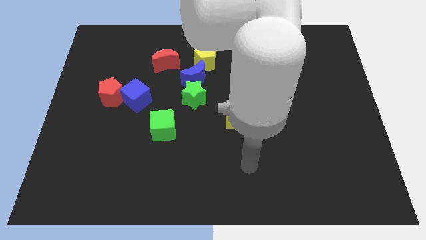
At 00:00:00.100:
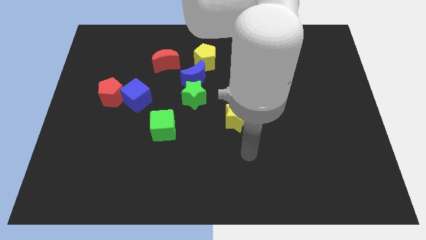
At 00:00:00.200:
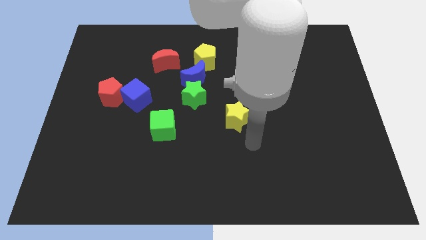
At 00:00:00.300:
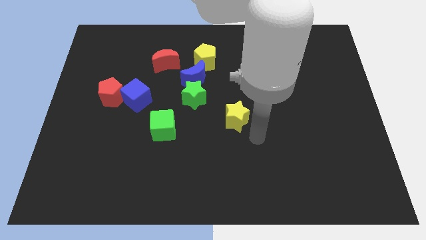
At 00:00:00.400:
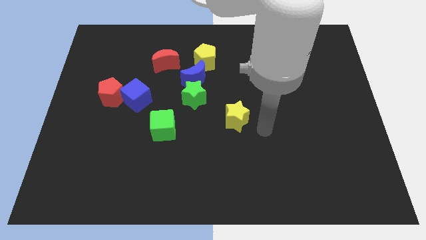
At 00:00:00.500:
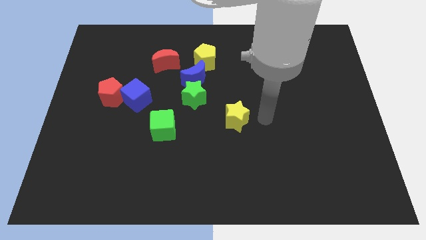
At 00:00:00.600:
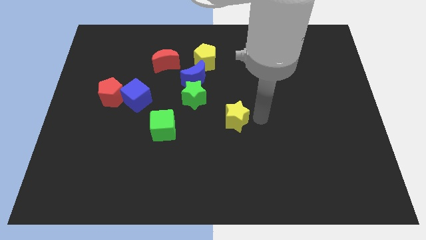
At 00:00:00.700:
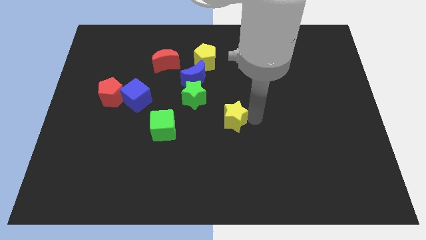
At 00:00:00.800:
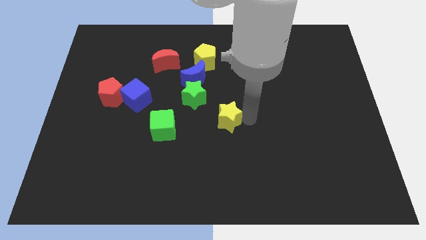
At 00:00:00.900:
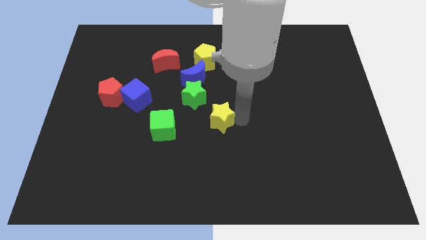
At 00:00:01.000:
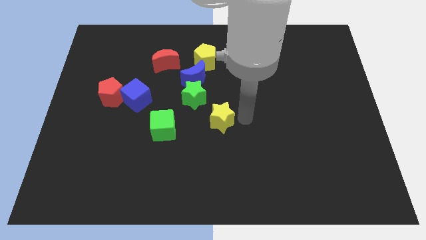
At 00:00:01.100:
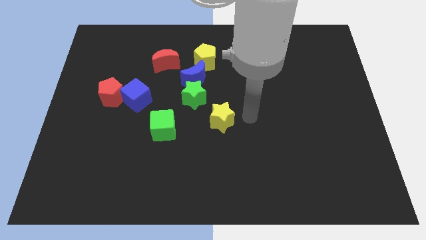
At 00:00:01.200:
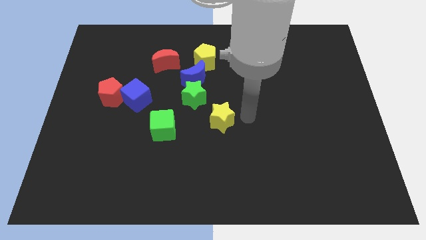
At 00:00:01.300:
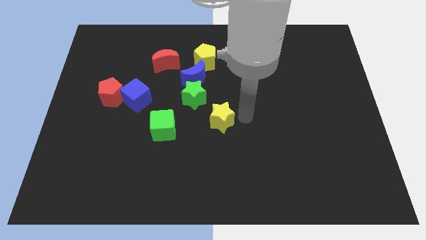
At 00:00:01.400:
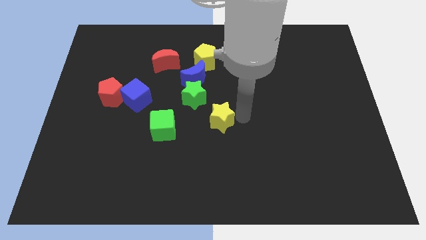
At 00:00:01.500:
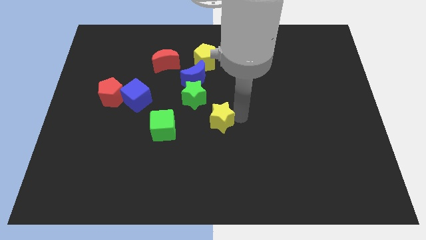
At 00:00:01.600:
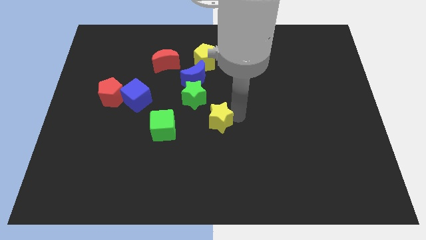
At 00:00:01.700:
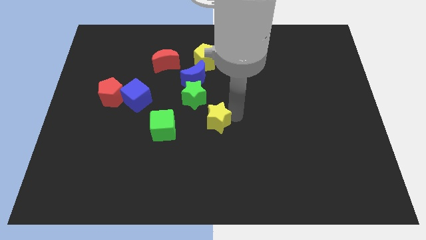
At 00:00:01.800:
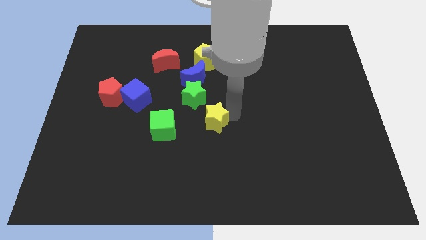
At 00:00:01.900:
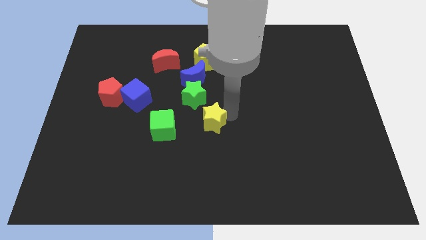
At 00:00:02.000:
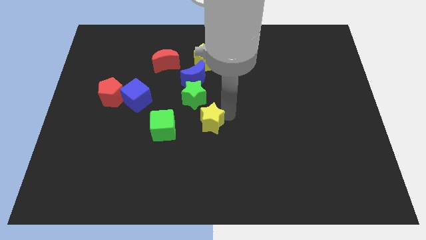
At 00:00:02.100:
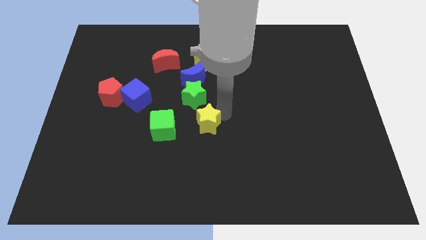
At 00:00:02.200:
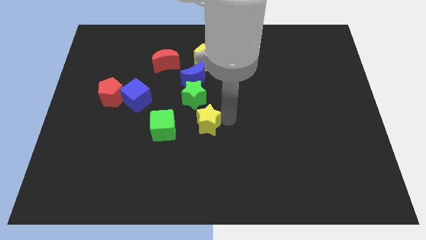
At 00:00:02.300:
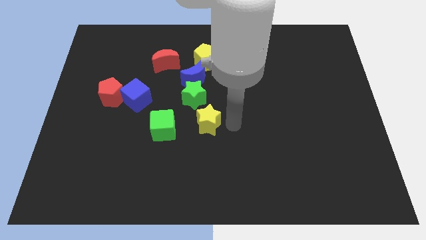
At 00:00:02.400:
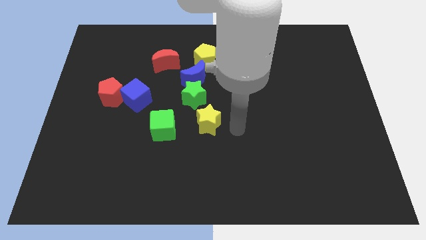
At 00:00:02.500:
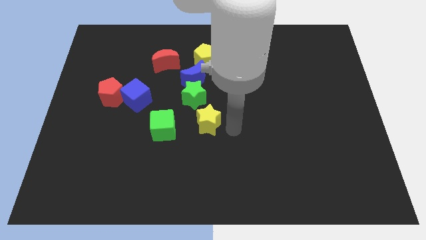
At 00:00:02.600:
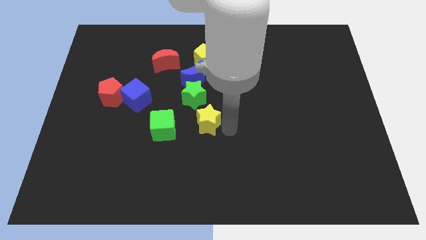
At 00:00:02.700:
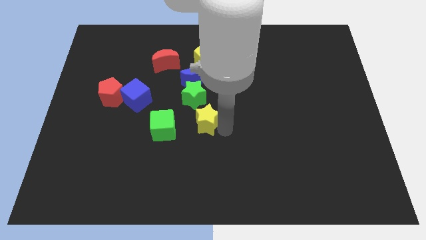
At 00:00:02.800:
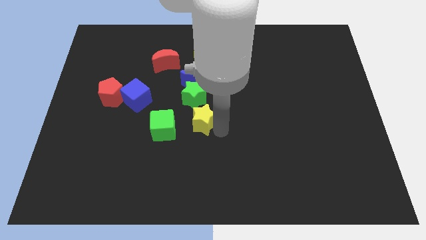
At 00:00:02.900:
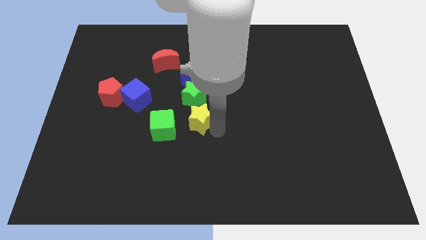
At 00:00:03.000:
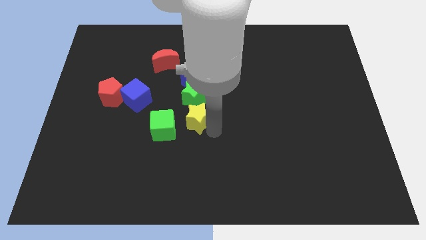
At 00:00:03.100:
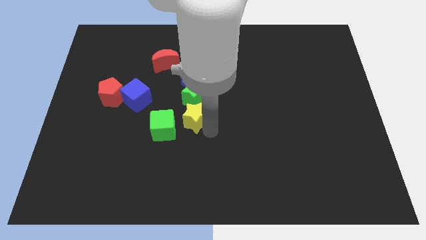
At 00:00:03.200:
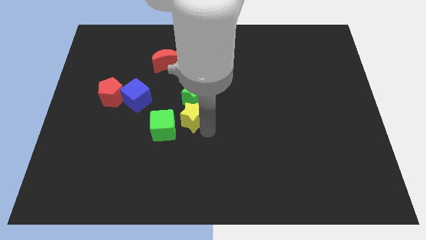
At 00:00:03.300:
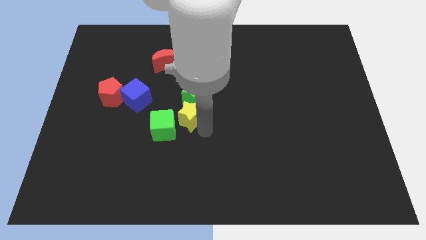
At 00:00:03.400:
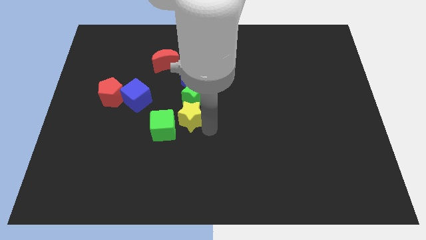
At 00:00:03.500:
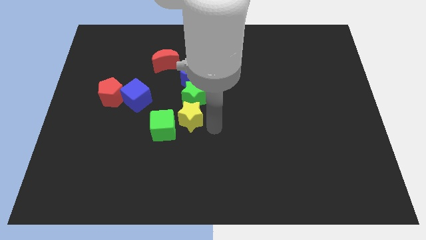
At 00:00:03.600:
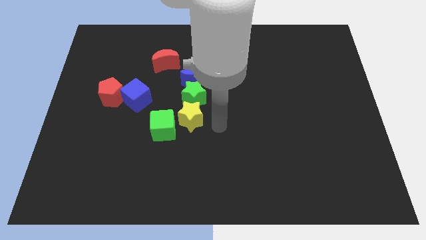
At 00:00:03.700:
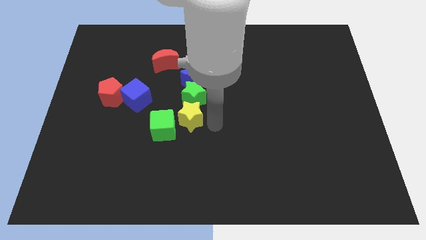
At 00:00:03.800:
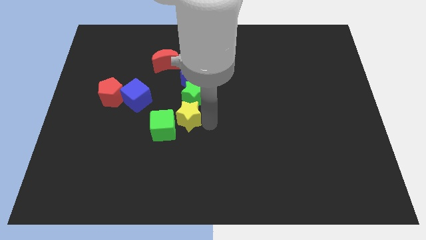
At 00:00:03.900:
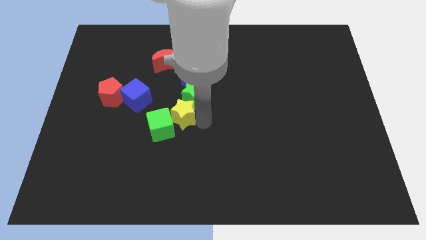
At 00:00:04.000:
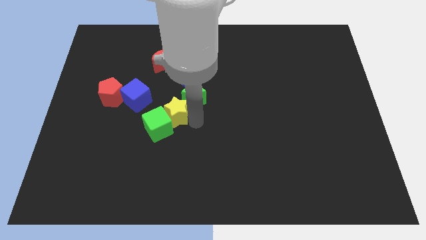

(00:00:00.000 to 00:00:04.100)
move the yellow star a little bit upwards and to the left diagonally

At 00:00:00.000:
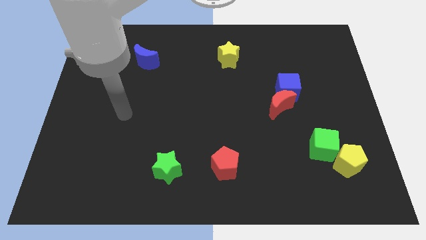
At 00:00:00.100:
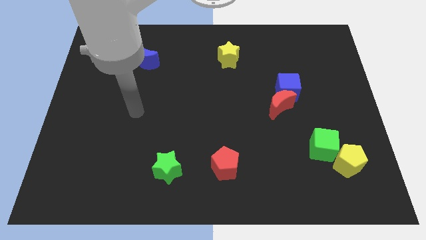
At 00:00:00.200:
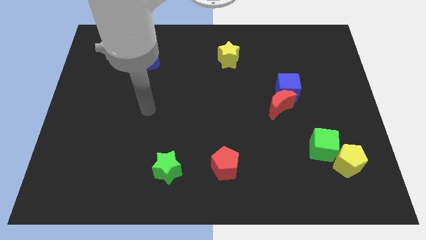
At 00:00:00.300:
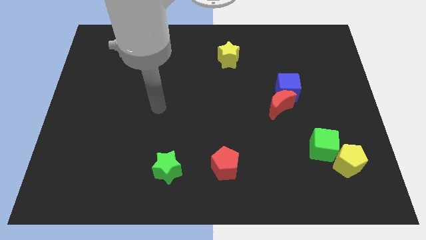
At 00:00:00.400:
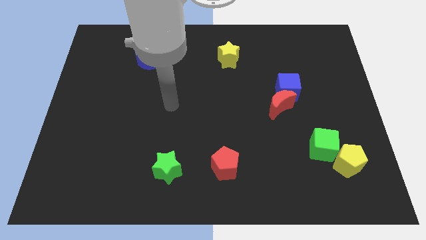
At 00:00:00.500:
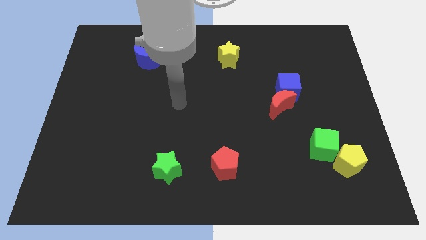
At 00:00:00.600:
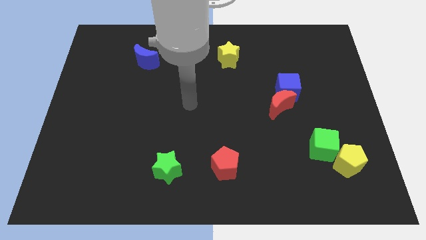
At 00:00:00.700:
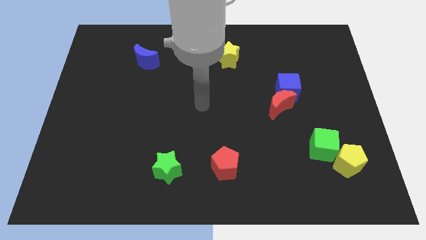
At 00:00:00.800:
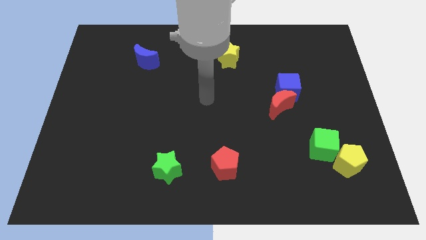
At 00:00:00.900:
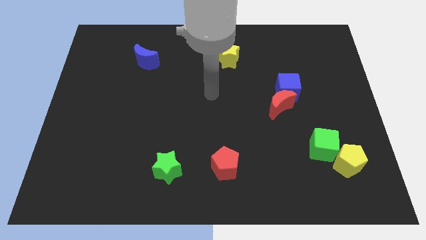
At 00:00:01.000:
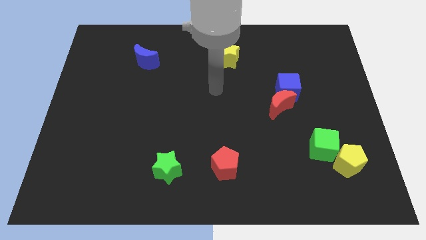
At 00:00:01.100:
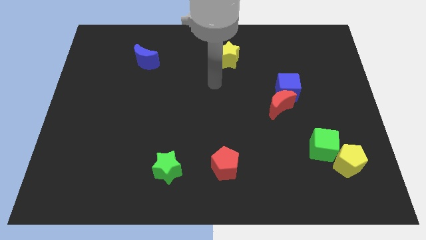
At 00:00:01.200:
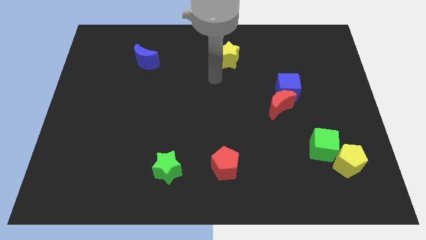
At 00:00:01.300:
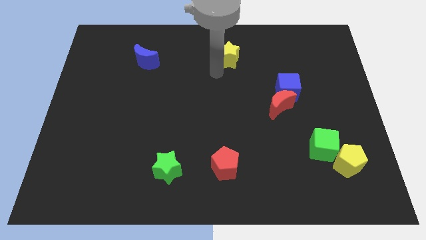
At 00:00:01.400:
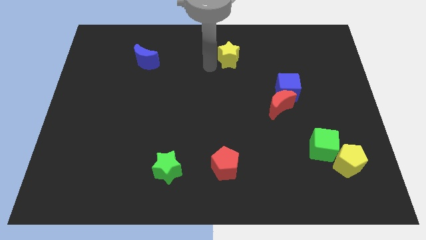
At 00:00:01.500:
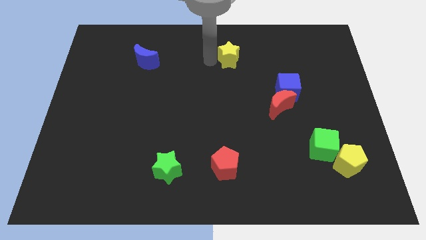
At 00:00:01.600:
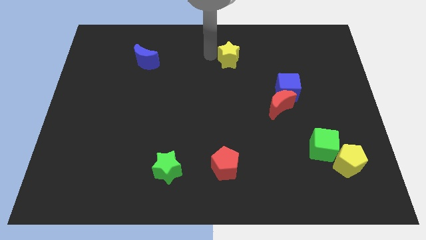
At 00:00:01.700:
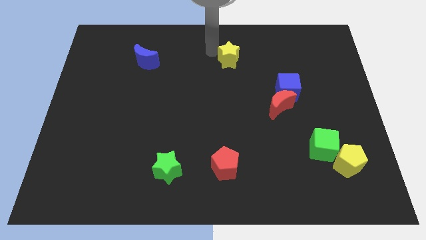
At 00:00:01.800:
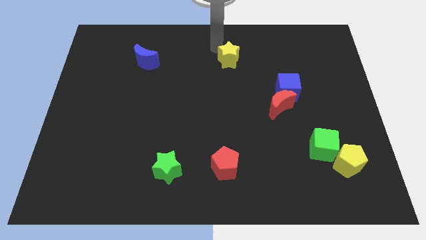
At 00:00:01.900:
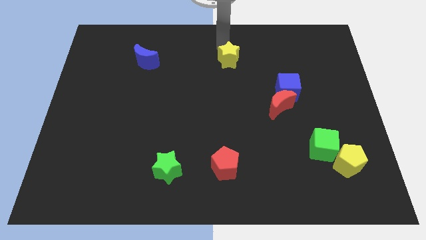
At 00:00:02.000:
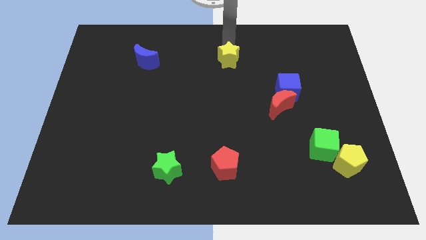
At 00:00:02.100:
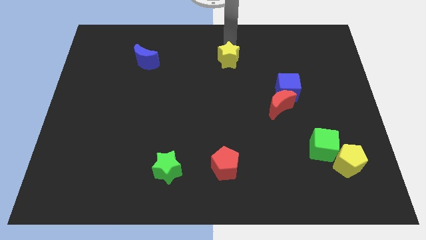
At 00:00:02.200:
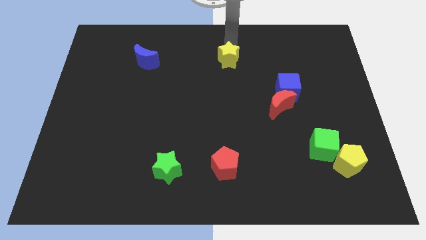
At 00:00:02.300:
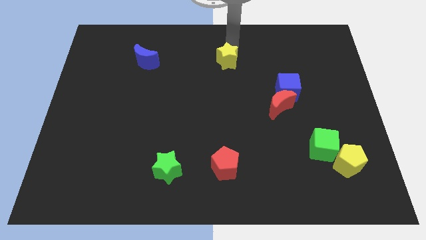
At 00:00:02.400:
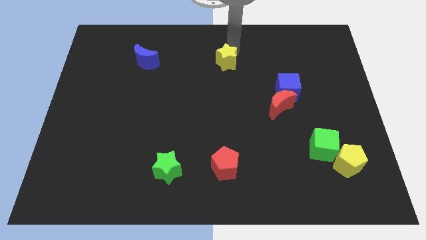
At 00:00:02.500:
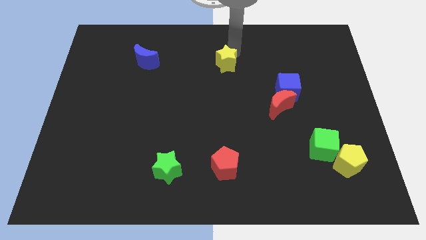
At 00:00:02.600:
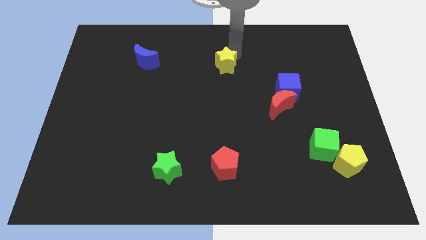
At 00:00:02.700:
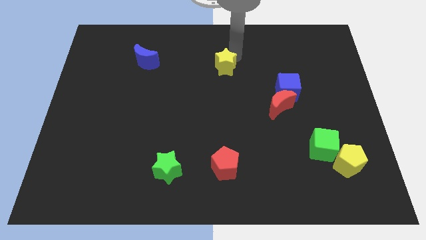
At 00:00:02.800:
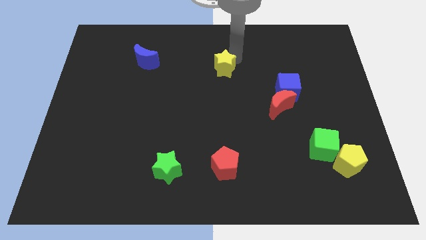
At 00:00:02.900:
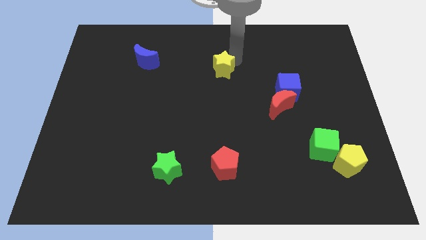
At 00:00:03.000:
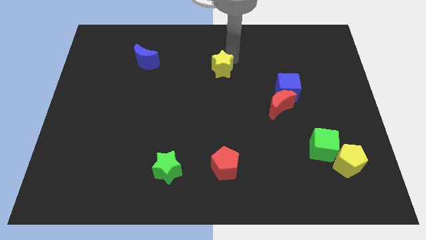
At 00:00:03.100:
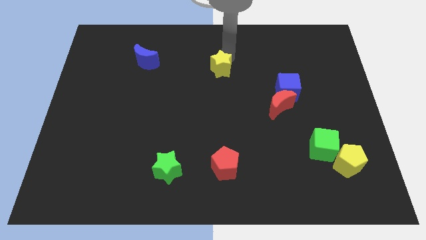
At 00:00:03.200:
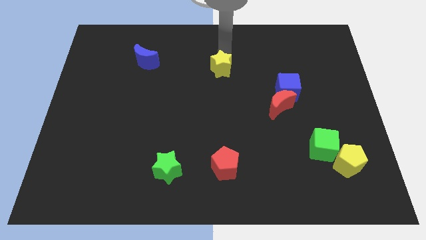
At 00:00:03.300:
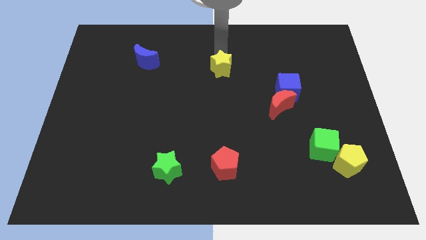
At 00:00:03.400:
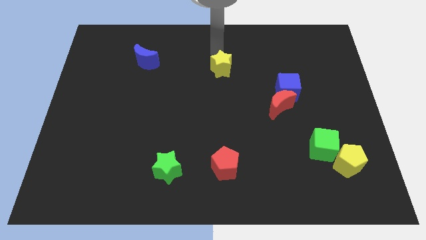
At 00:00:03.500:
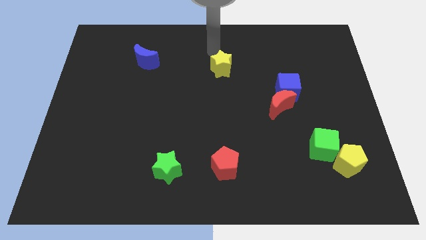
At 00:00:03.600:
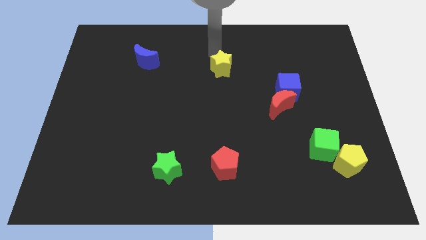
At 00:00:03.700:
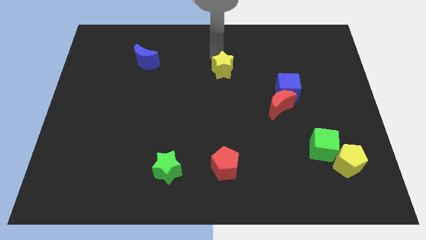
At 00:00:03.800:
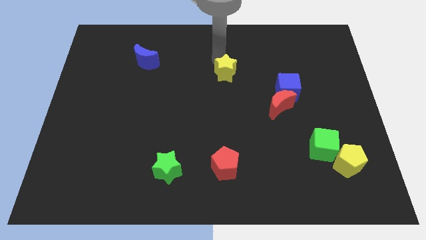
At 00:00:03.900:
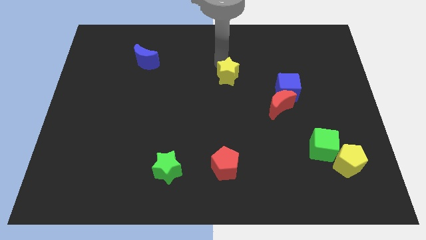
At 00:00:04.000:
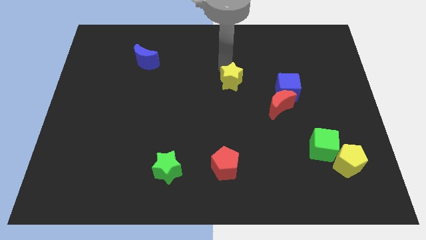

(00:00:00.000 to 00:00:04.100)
move the yellow star a little downwards
